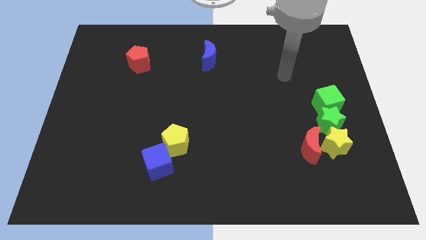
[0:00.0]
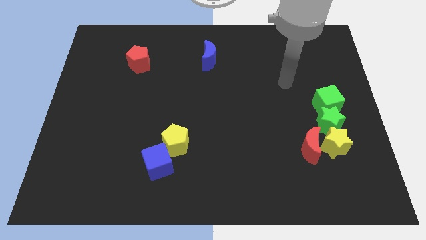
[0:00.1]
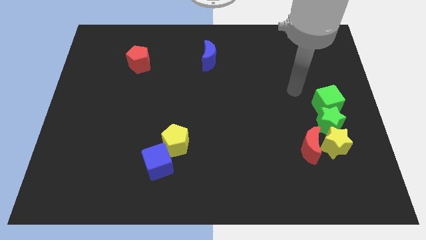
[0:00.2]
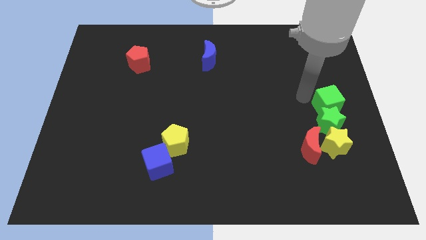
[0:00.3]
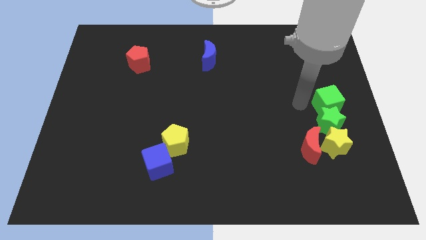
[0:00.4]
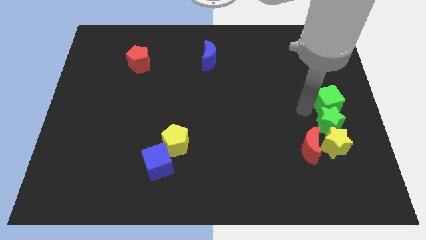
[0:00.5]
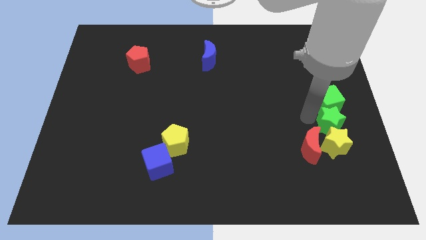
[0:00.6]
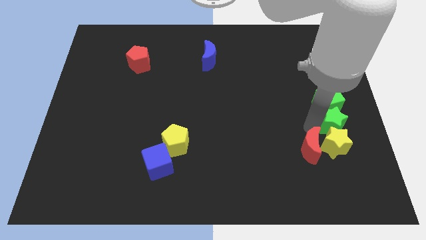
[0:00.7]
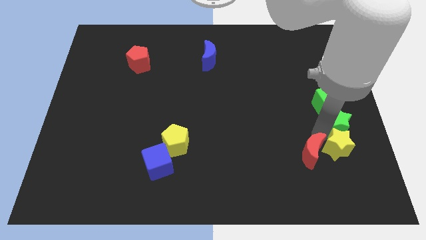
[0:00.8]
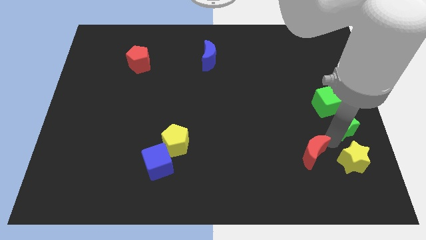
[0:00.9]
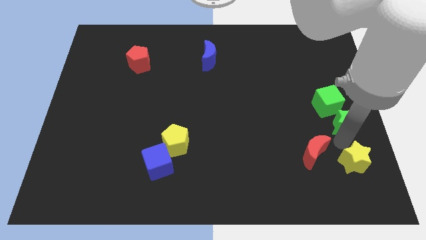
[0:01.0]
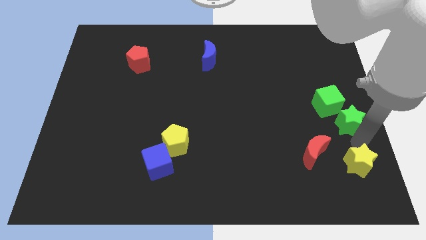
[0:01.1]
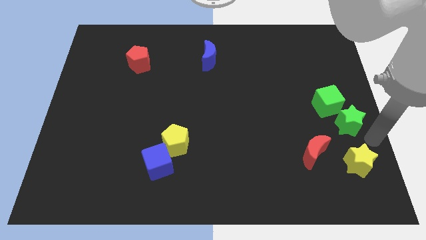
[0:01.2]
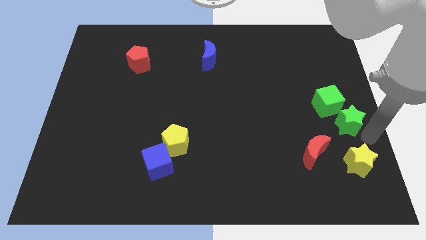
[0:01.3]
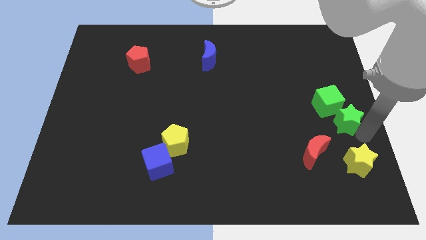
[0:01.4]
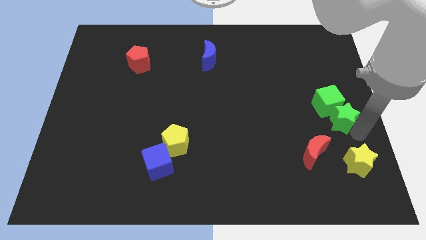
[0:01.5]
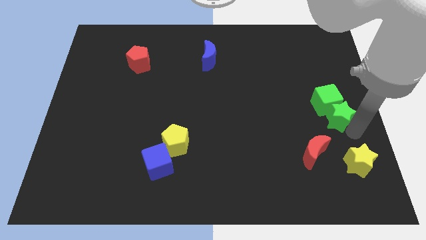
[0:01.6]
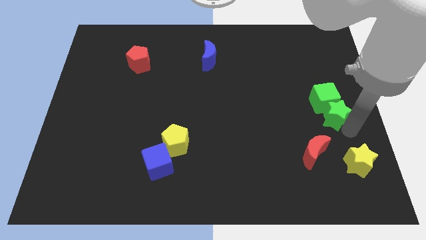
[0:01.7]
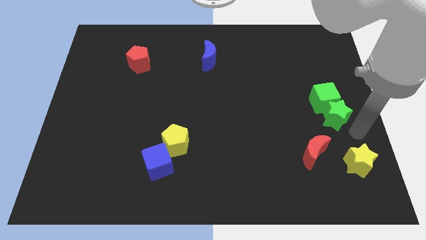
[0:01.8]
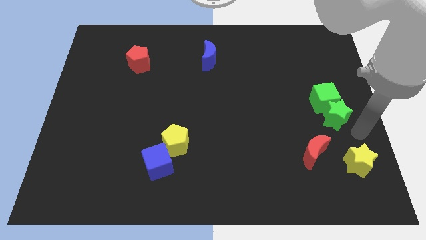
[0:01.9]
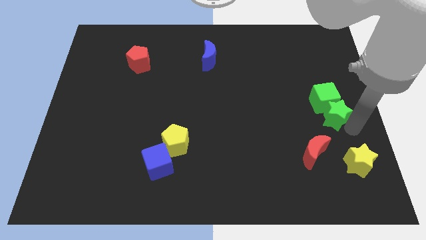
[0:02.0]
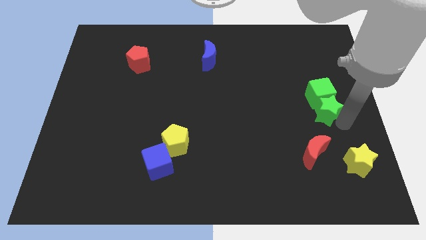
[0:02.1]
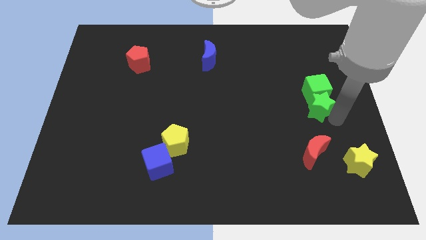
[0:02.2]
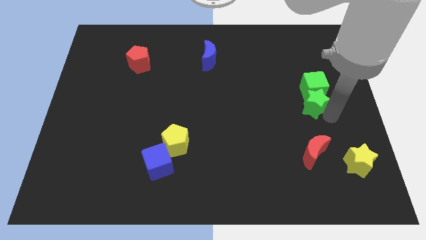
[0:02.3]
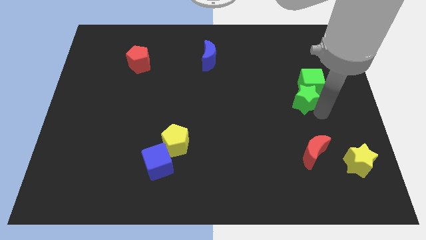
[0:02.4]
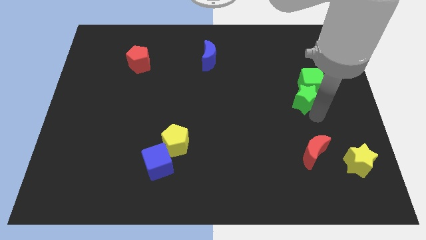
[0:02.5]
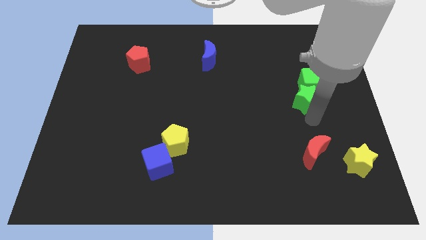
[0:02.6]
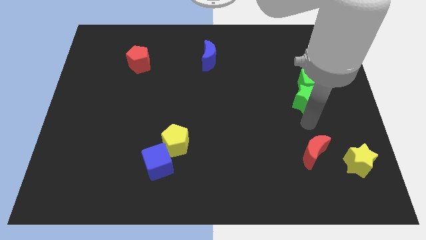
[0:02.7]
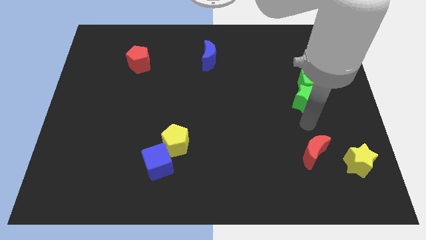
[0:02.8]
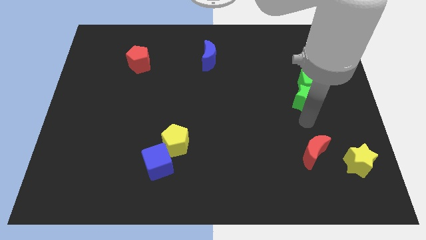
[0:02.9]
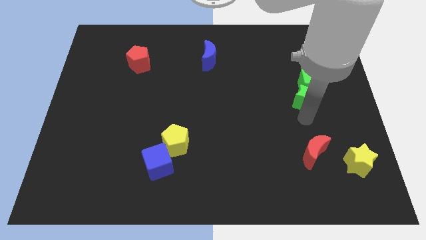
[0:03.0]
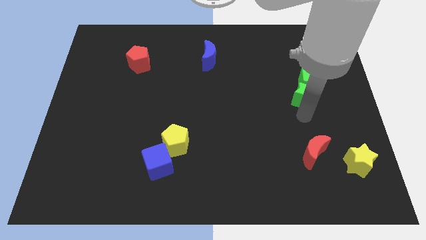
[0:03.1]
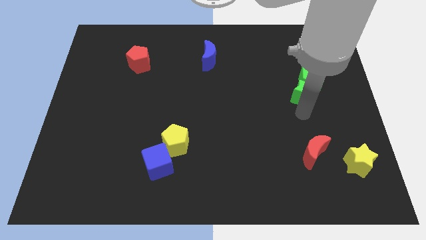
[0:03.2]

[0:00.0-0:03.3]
slide the green star a little upwards

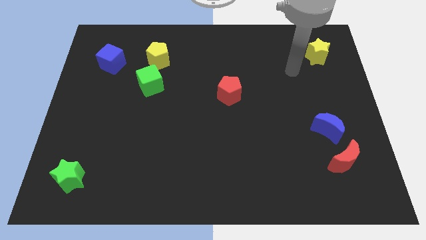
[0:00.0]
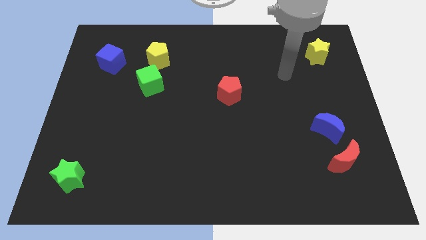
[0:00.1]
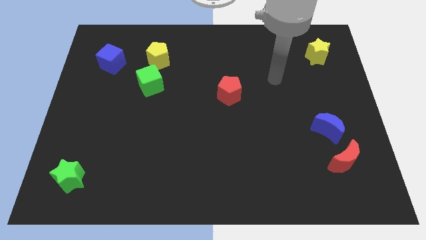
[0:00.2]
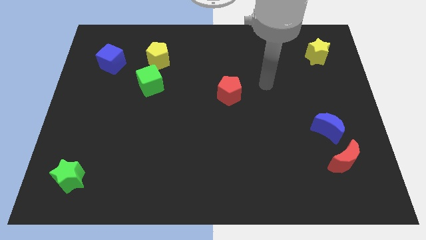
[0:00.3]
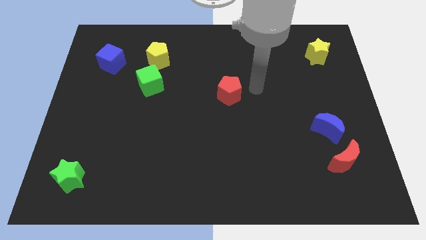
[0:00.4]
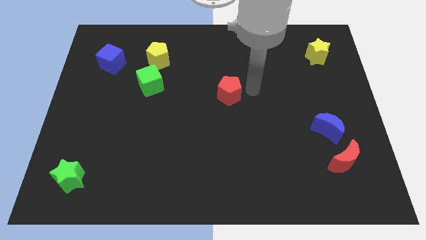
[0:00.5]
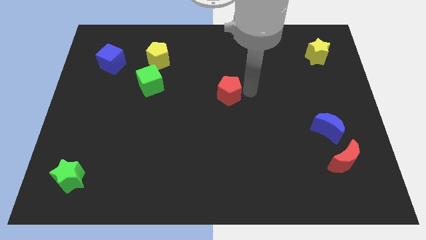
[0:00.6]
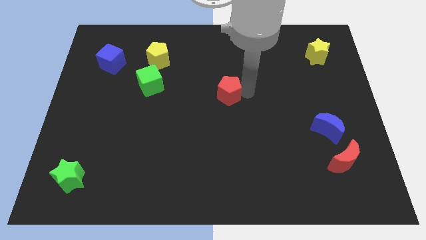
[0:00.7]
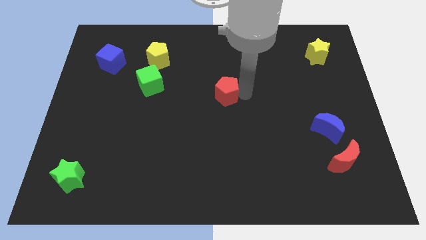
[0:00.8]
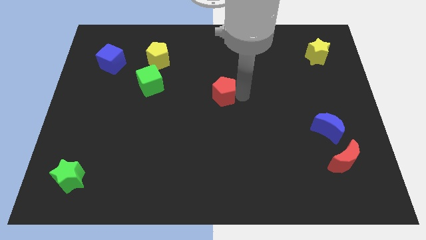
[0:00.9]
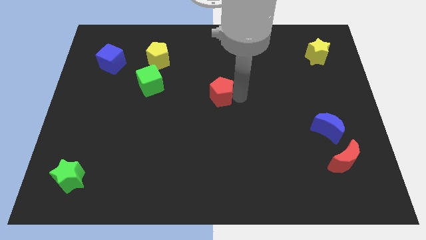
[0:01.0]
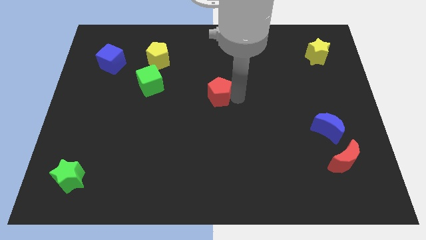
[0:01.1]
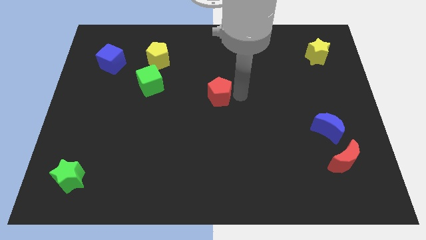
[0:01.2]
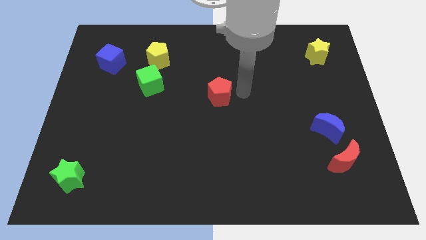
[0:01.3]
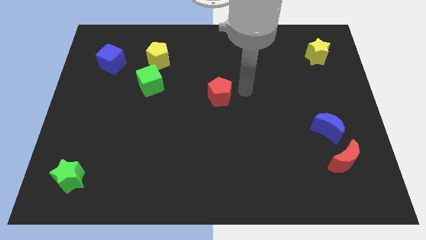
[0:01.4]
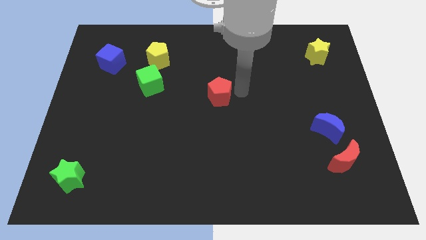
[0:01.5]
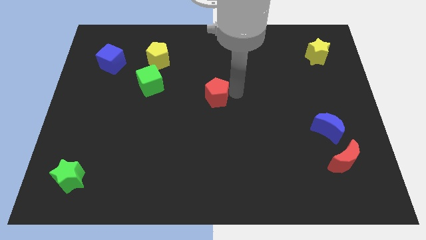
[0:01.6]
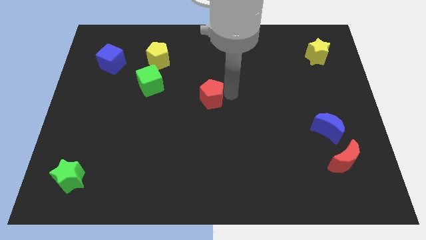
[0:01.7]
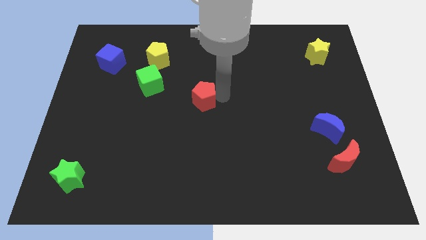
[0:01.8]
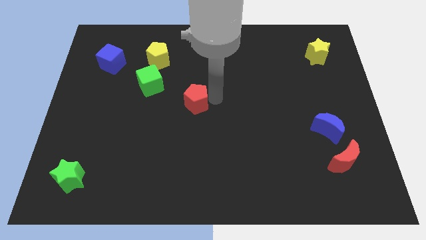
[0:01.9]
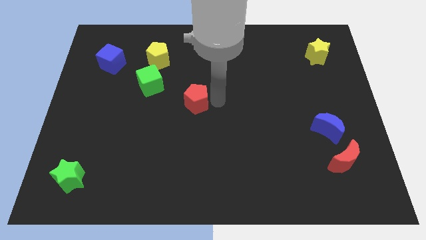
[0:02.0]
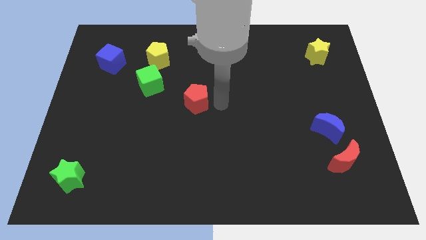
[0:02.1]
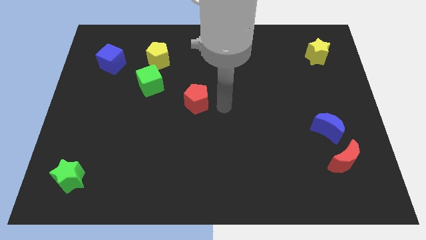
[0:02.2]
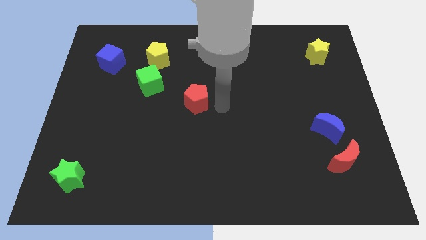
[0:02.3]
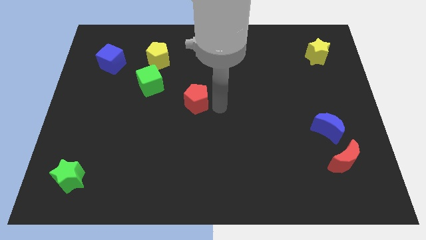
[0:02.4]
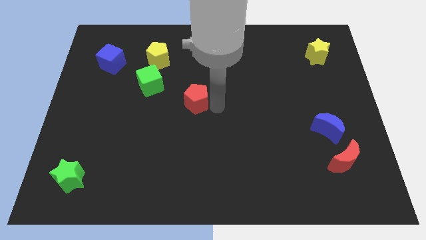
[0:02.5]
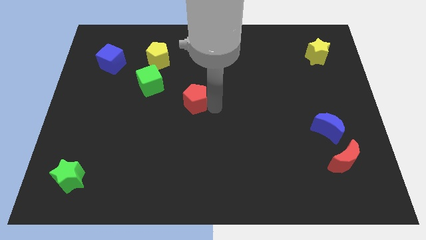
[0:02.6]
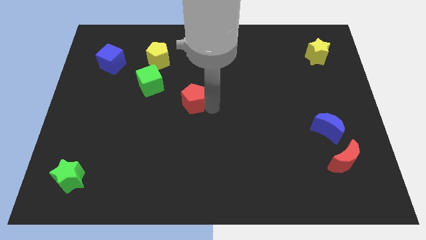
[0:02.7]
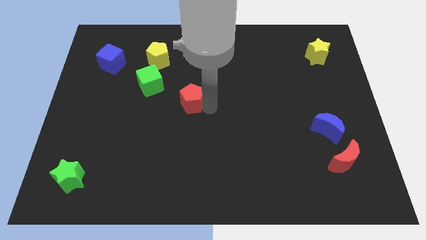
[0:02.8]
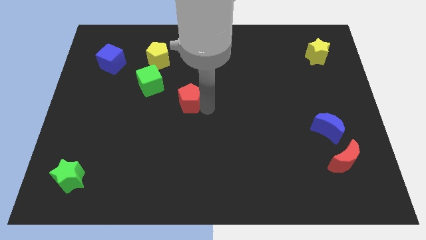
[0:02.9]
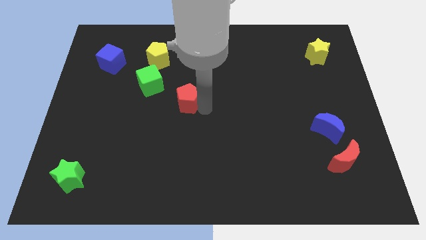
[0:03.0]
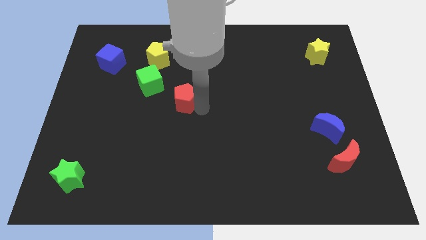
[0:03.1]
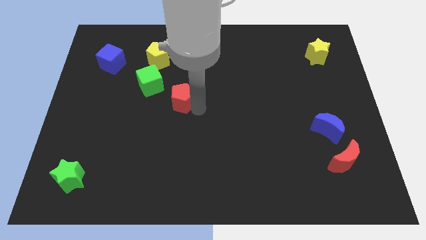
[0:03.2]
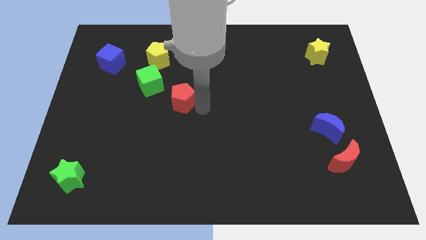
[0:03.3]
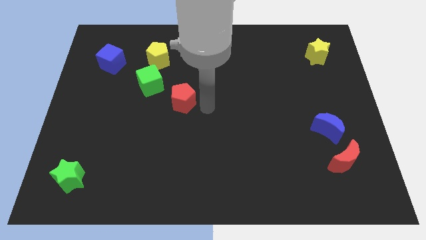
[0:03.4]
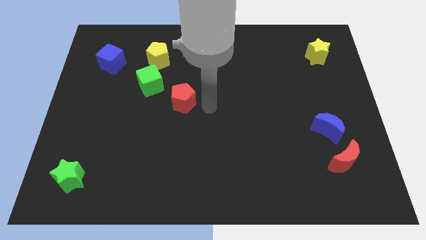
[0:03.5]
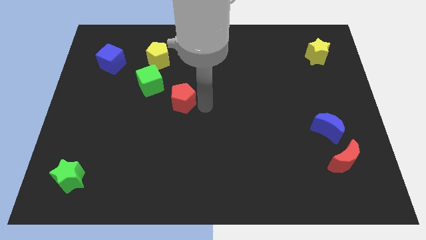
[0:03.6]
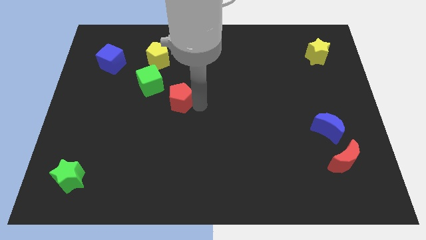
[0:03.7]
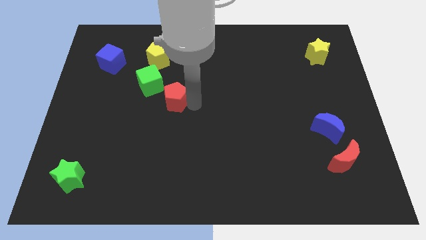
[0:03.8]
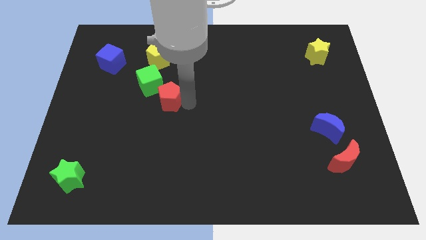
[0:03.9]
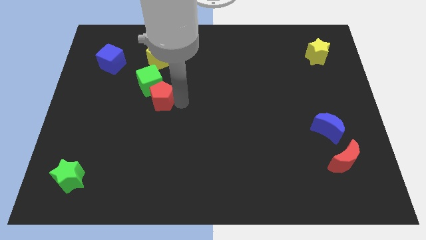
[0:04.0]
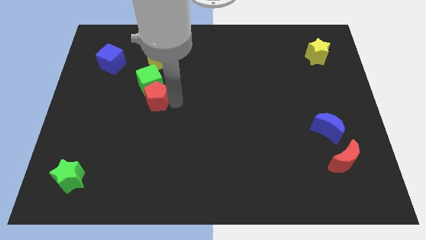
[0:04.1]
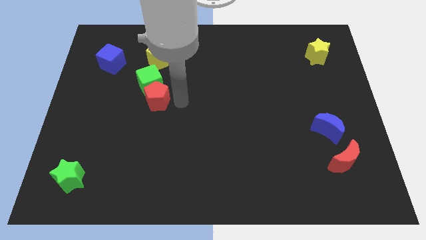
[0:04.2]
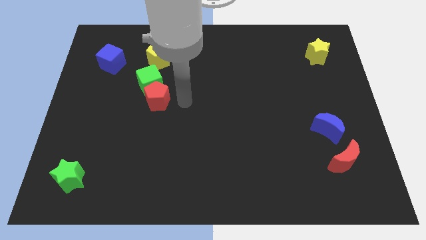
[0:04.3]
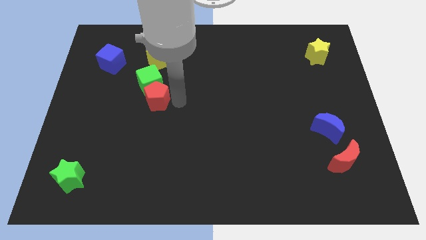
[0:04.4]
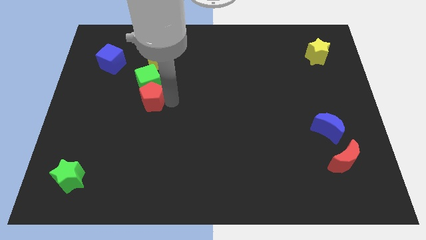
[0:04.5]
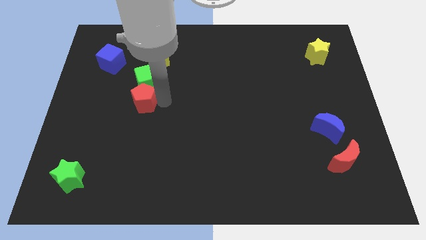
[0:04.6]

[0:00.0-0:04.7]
slide the red pentagon left

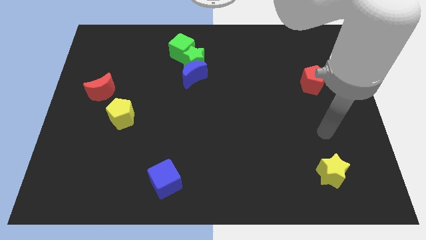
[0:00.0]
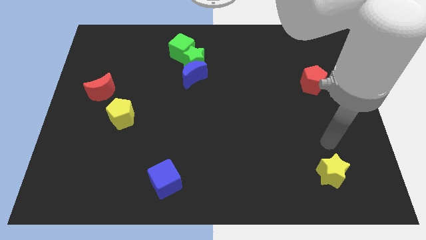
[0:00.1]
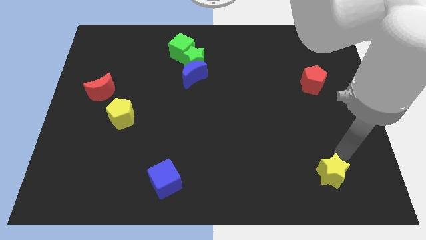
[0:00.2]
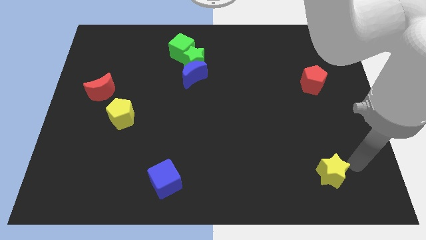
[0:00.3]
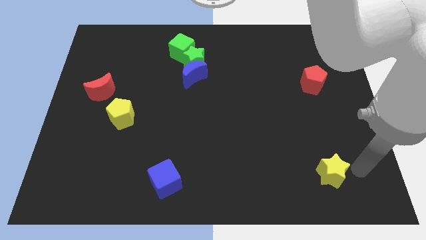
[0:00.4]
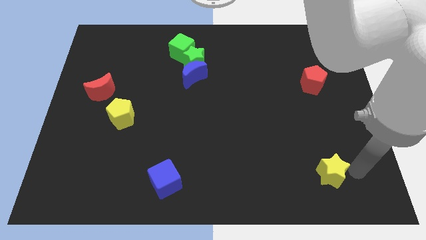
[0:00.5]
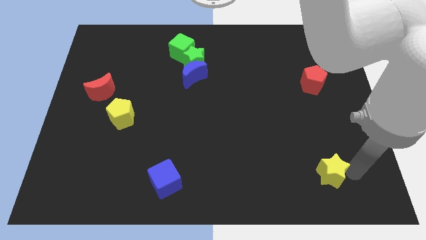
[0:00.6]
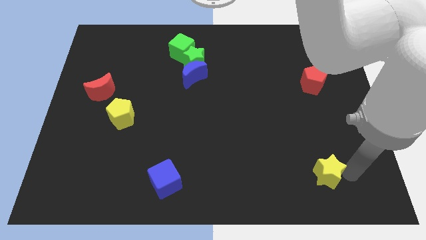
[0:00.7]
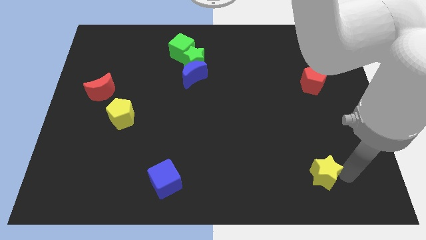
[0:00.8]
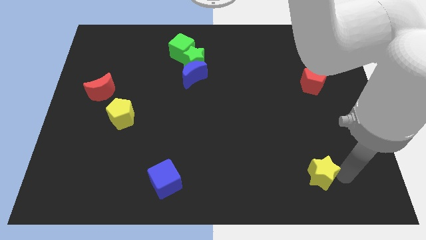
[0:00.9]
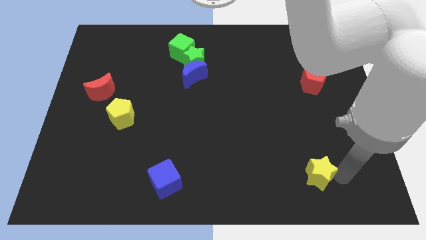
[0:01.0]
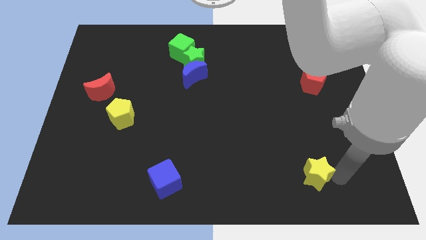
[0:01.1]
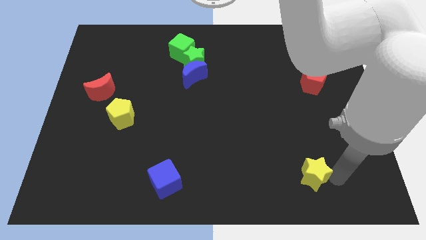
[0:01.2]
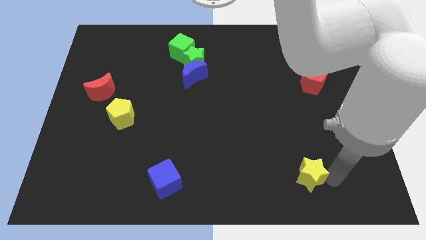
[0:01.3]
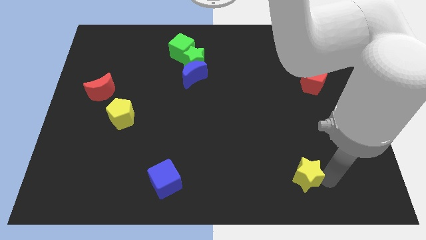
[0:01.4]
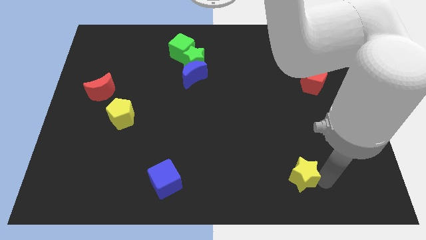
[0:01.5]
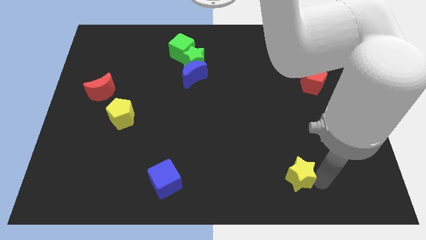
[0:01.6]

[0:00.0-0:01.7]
push the yellow star left slightly
